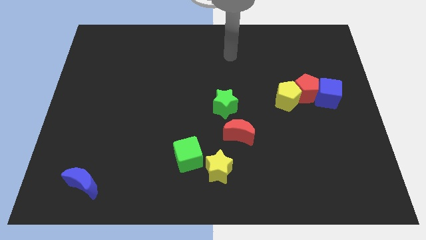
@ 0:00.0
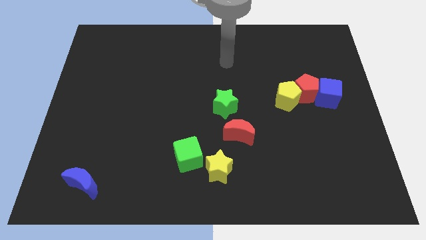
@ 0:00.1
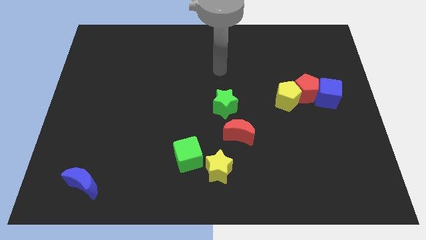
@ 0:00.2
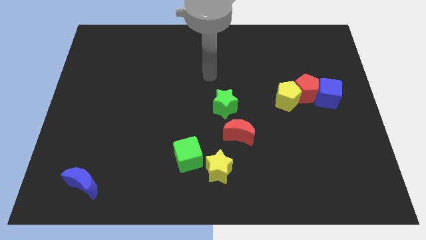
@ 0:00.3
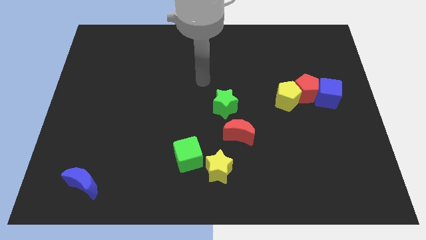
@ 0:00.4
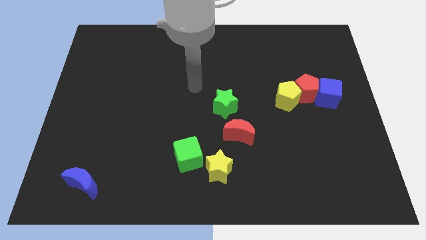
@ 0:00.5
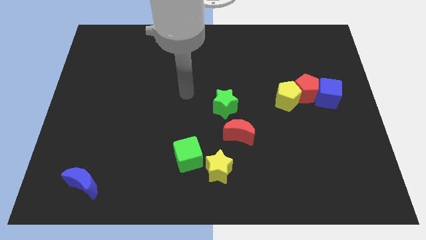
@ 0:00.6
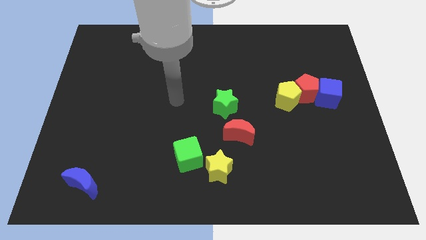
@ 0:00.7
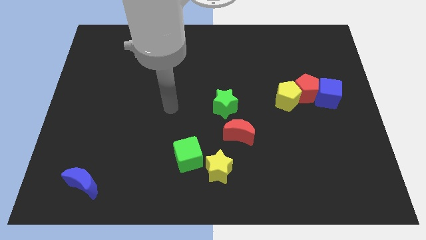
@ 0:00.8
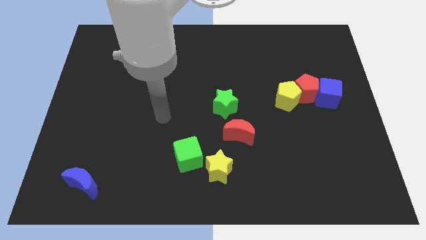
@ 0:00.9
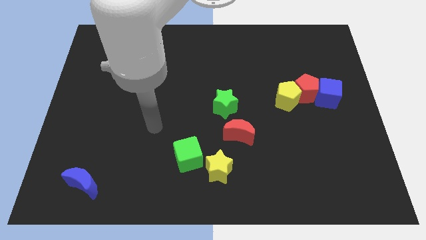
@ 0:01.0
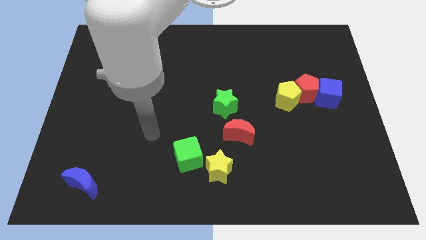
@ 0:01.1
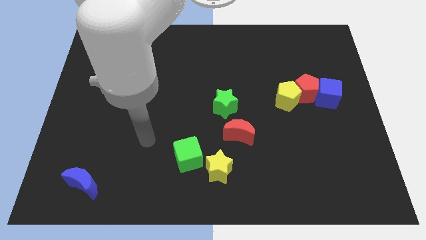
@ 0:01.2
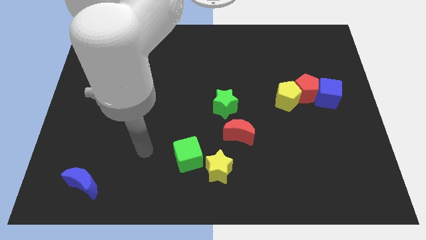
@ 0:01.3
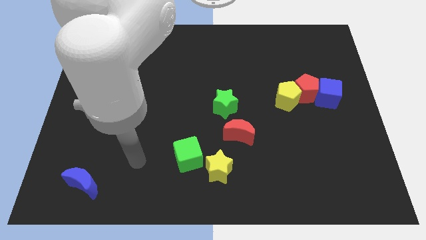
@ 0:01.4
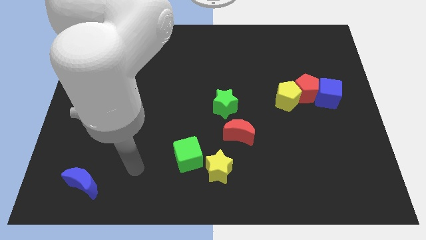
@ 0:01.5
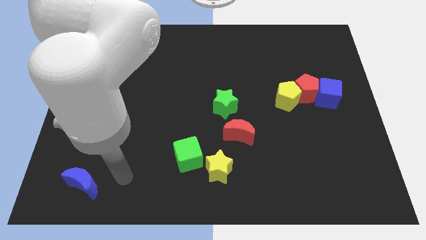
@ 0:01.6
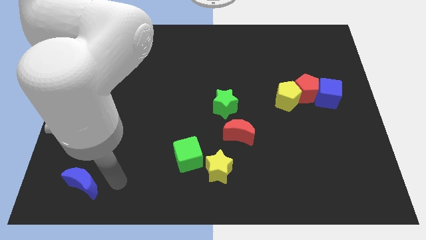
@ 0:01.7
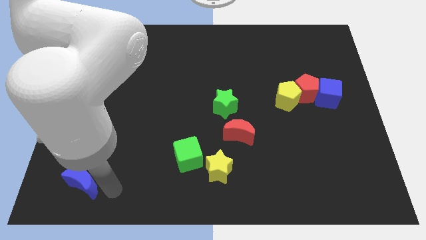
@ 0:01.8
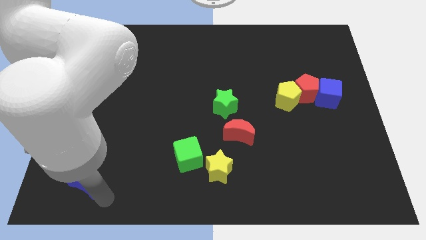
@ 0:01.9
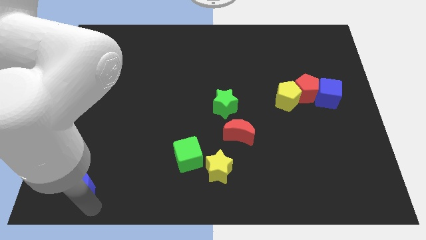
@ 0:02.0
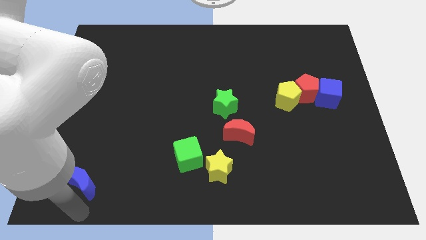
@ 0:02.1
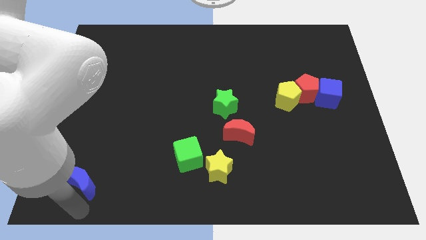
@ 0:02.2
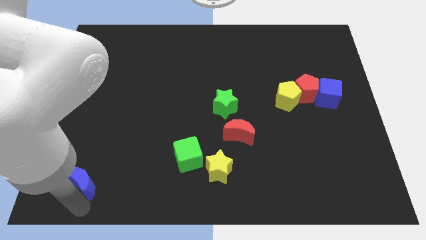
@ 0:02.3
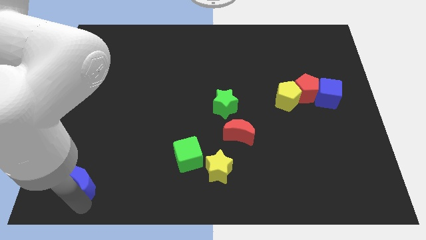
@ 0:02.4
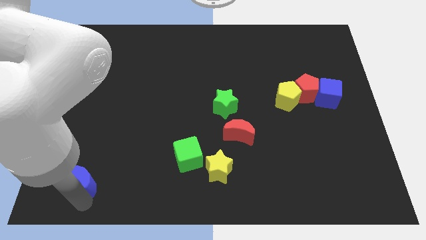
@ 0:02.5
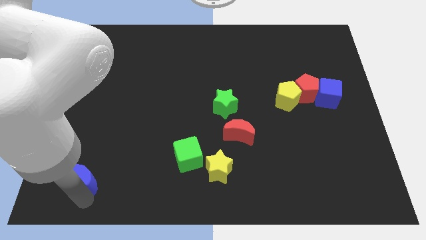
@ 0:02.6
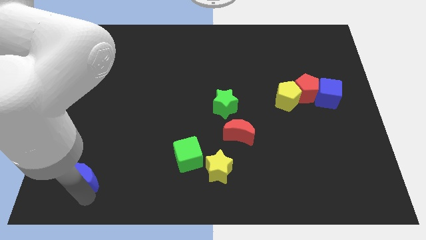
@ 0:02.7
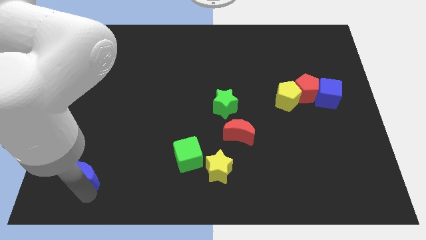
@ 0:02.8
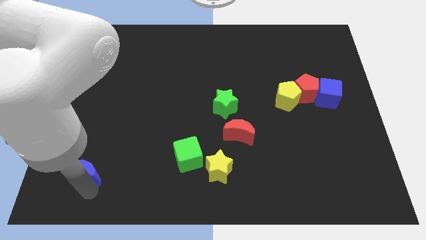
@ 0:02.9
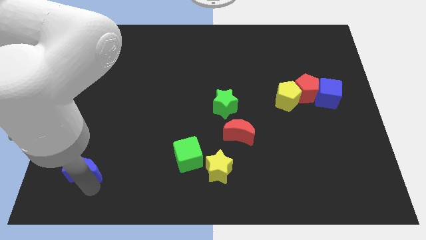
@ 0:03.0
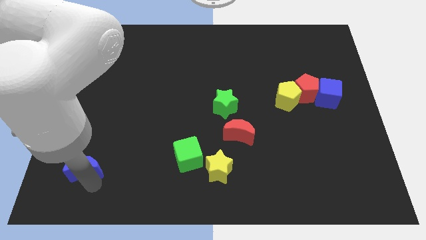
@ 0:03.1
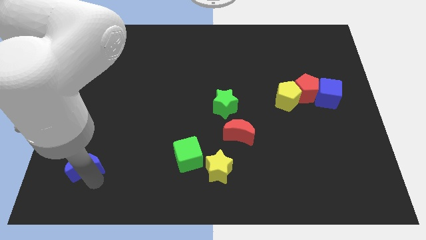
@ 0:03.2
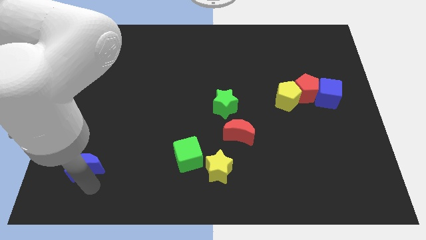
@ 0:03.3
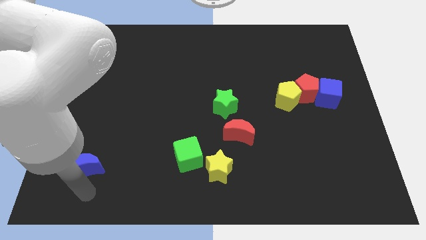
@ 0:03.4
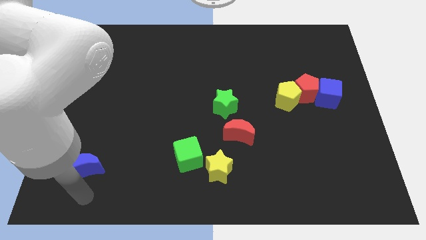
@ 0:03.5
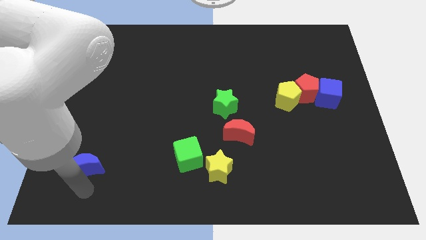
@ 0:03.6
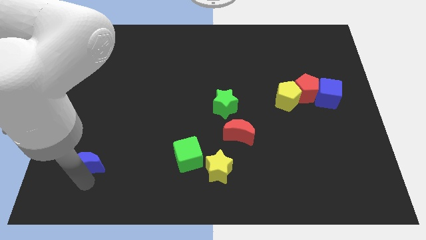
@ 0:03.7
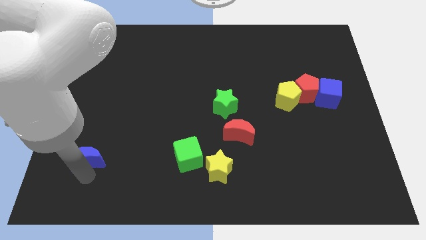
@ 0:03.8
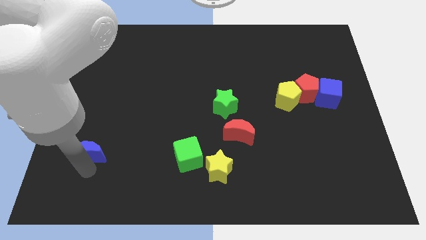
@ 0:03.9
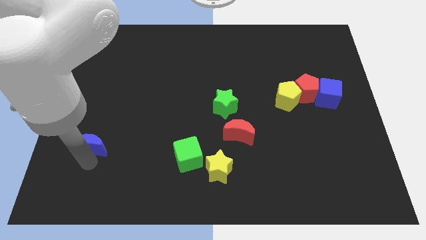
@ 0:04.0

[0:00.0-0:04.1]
slide the blue moon slightly upwards

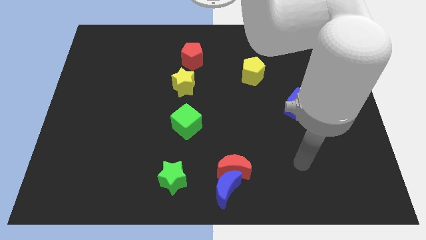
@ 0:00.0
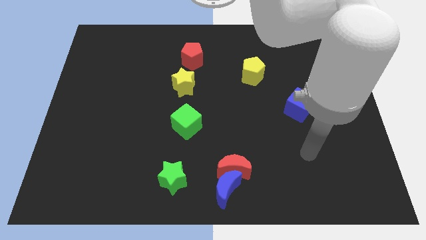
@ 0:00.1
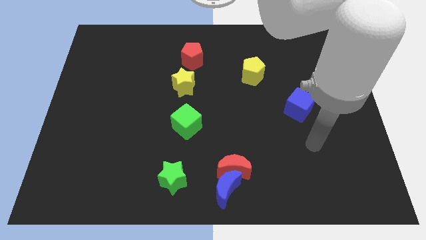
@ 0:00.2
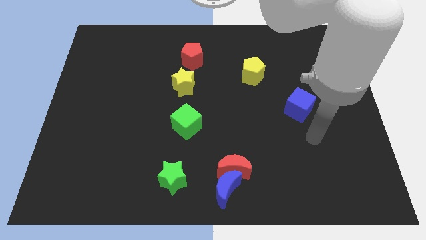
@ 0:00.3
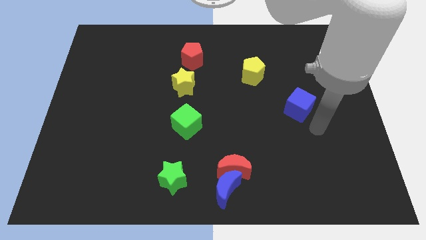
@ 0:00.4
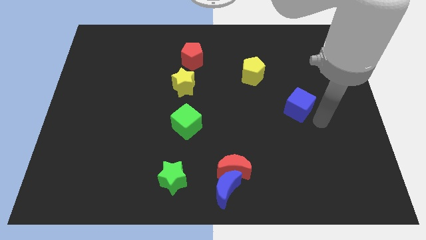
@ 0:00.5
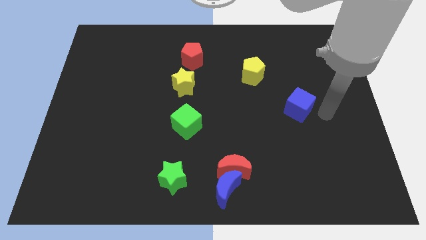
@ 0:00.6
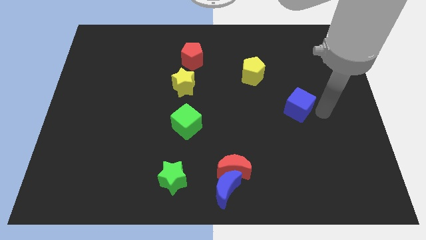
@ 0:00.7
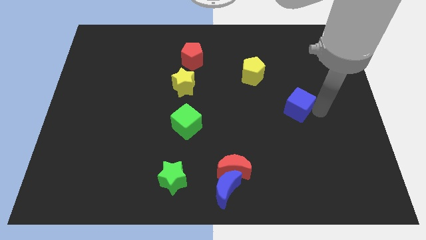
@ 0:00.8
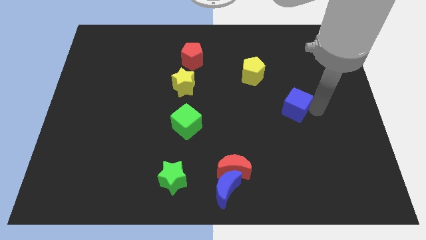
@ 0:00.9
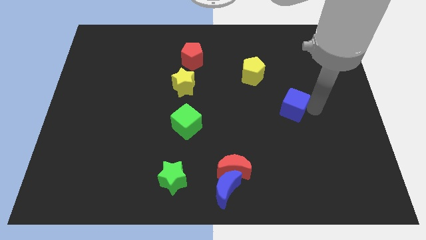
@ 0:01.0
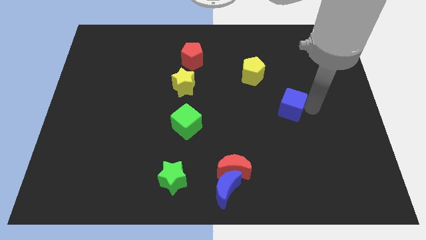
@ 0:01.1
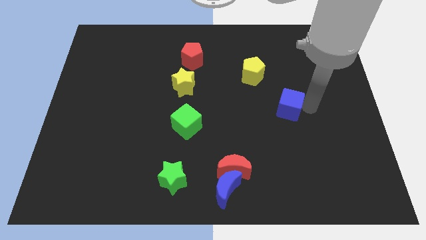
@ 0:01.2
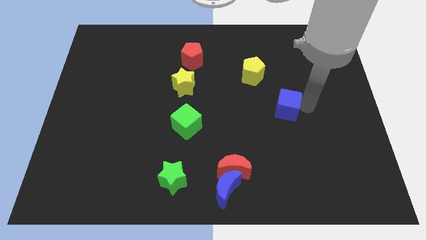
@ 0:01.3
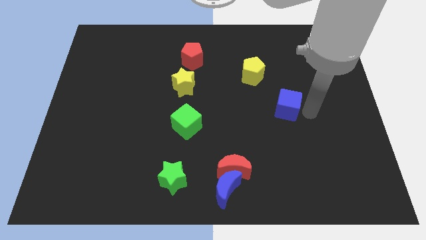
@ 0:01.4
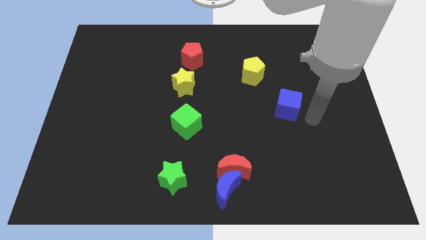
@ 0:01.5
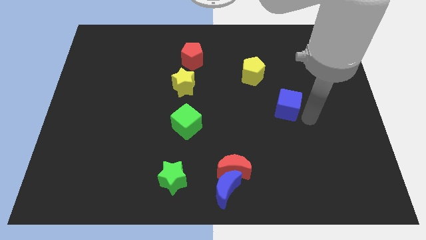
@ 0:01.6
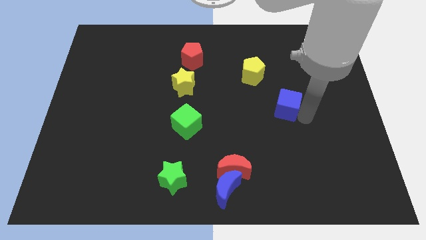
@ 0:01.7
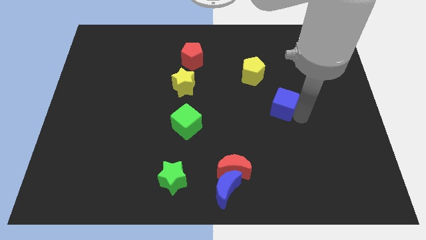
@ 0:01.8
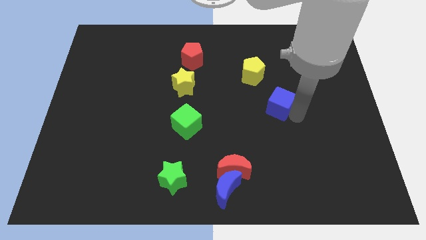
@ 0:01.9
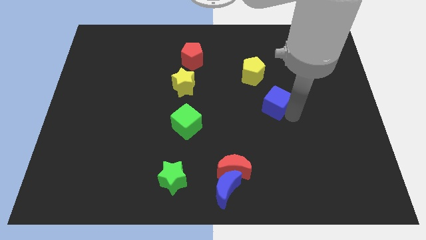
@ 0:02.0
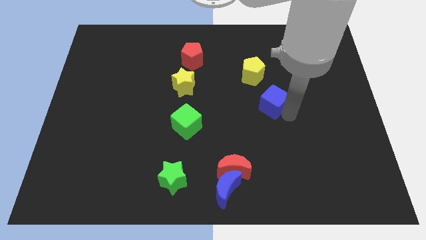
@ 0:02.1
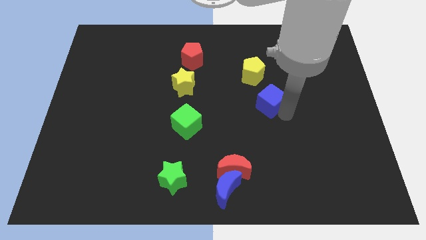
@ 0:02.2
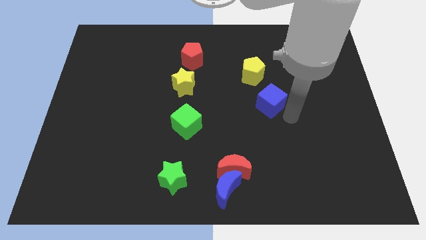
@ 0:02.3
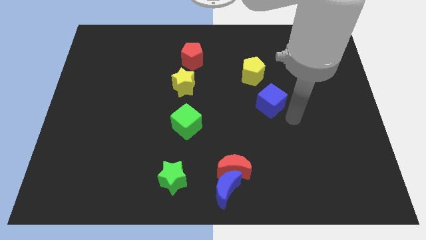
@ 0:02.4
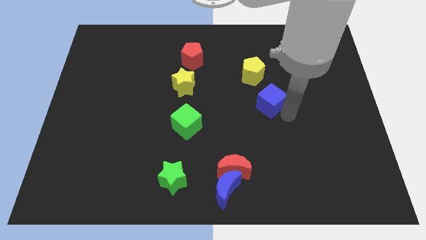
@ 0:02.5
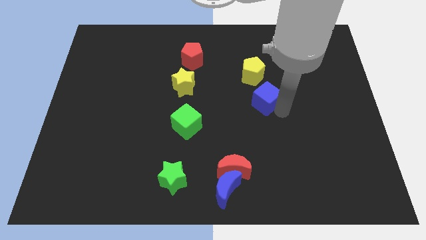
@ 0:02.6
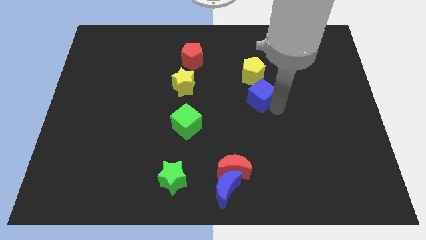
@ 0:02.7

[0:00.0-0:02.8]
slide the blue cube up and left slightly

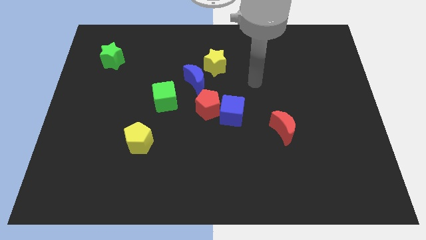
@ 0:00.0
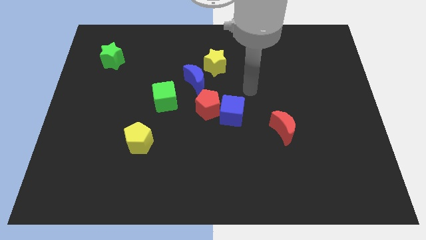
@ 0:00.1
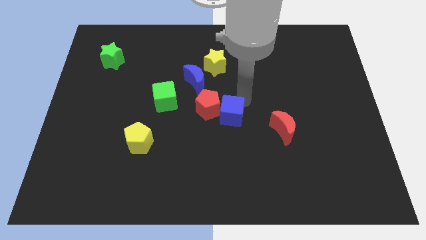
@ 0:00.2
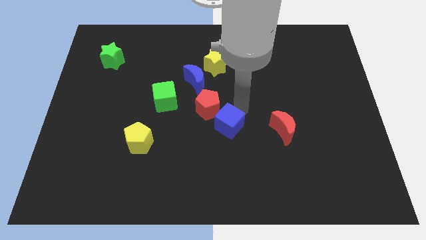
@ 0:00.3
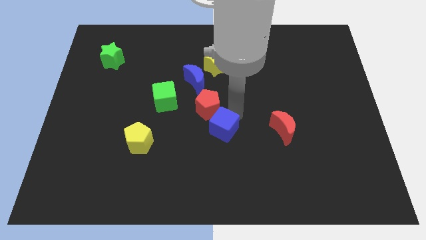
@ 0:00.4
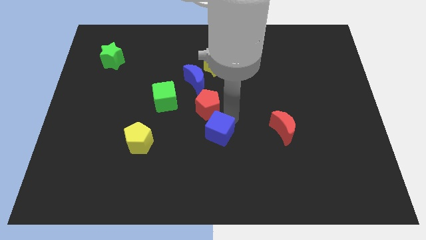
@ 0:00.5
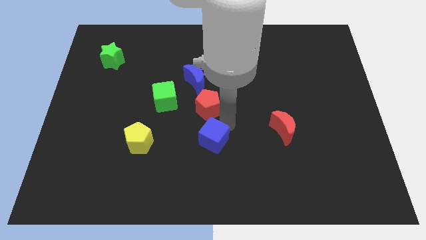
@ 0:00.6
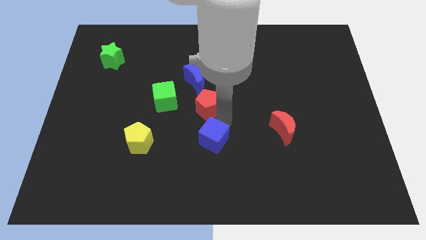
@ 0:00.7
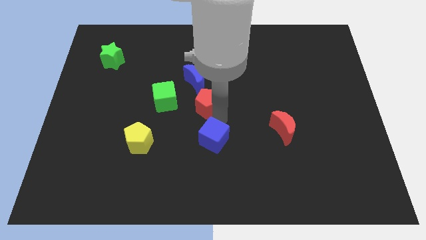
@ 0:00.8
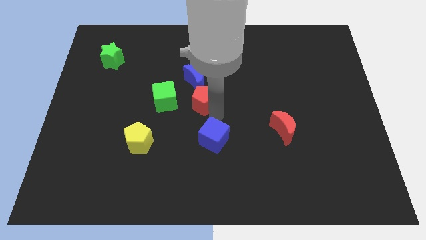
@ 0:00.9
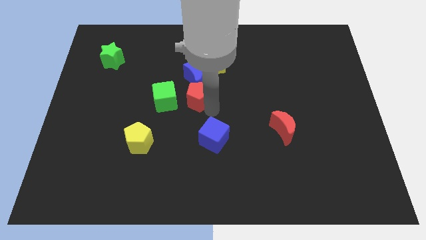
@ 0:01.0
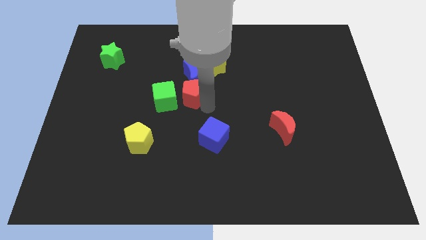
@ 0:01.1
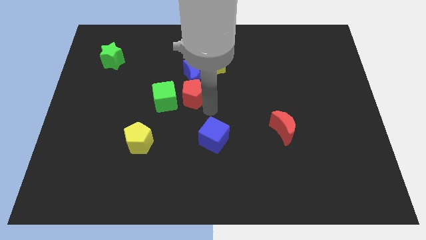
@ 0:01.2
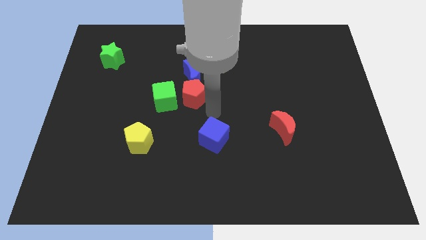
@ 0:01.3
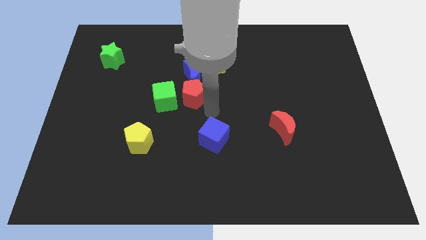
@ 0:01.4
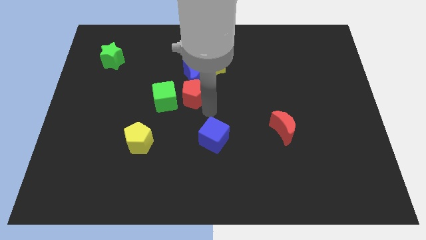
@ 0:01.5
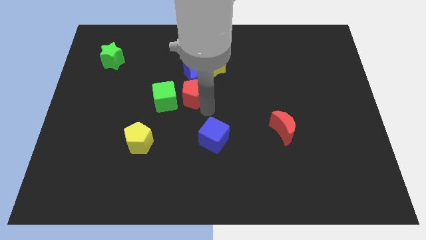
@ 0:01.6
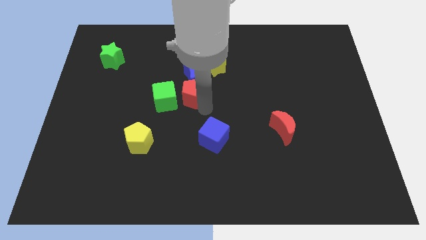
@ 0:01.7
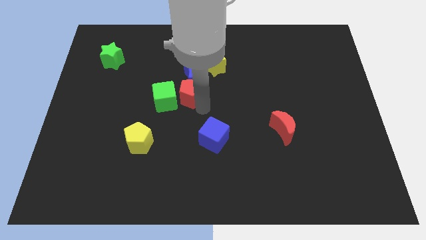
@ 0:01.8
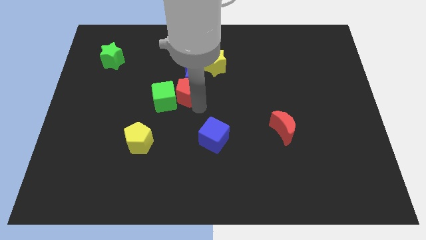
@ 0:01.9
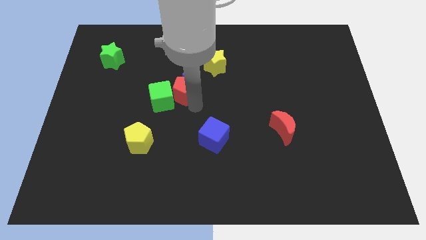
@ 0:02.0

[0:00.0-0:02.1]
slightly push the red pentagon upwards and then left
